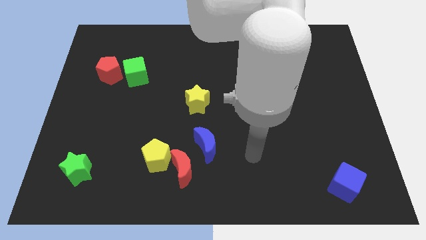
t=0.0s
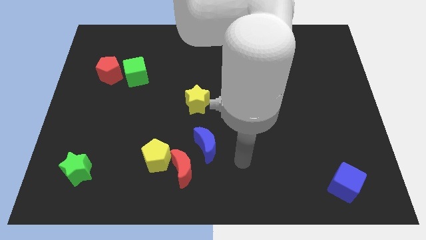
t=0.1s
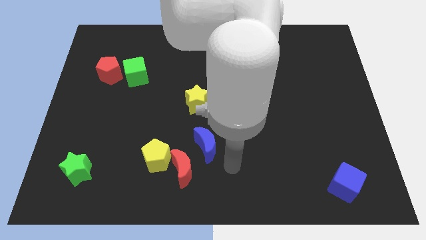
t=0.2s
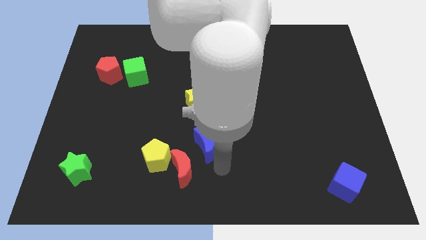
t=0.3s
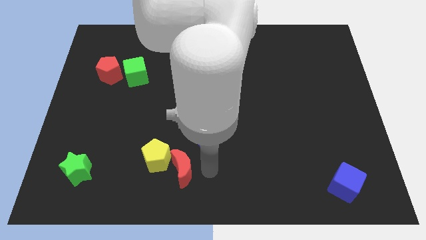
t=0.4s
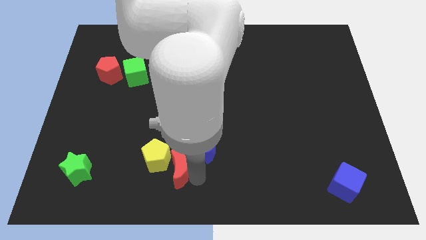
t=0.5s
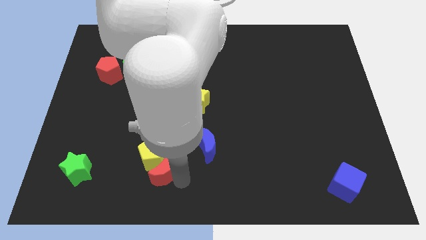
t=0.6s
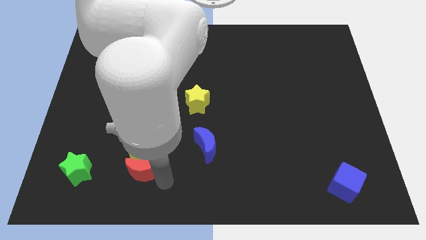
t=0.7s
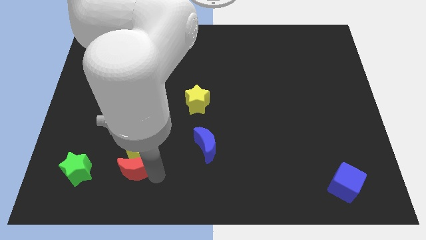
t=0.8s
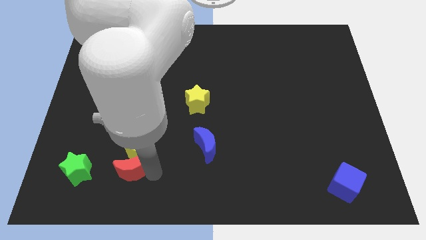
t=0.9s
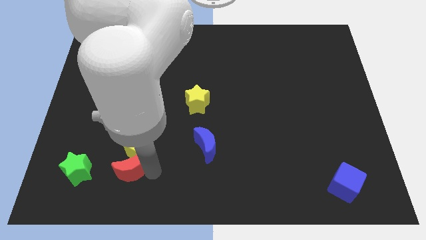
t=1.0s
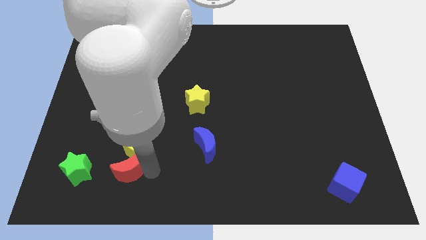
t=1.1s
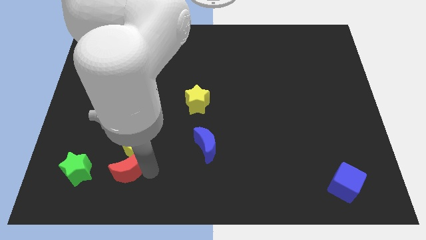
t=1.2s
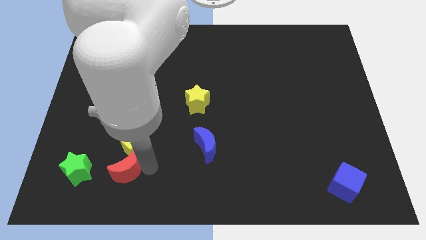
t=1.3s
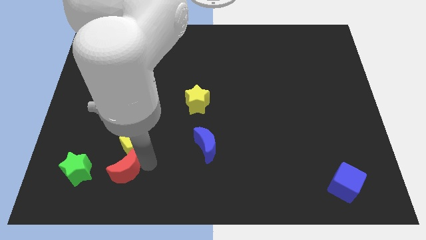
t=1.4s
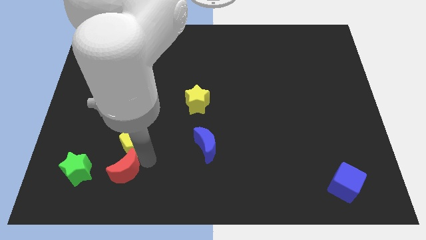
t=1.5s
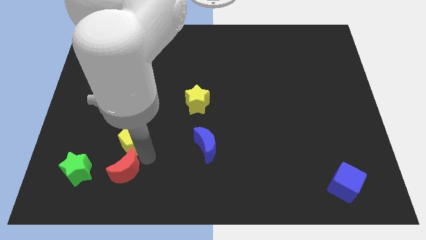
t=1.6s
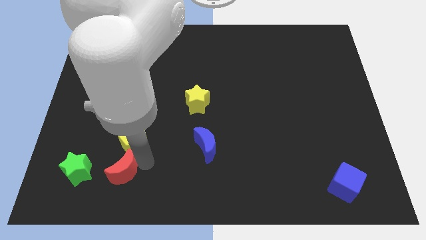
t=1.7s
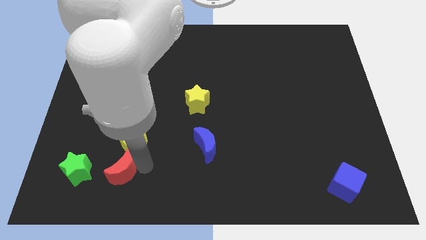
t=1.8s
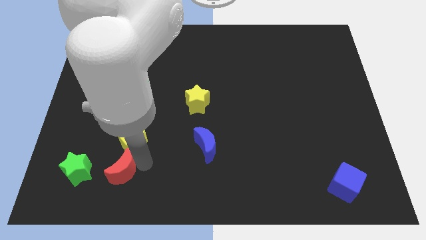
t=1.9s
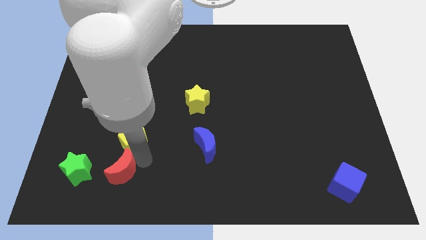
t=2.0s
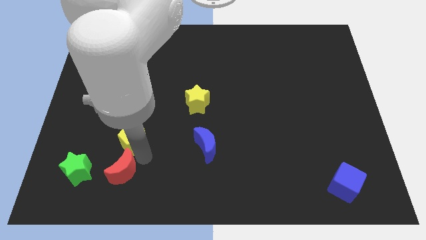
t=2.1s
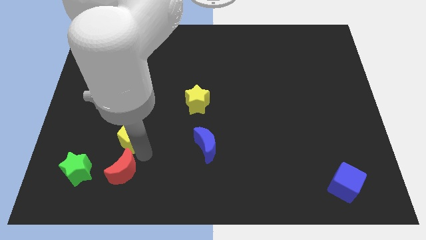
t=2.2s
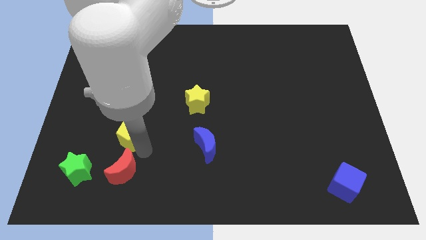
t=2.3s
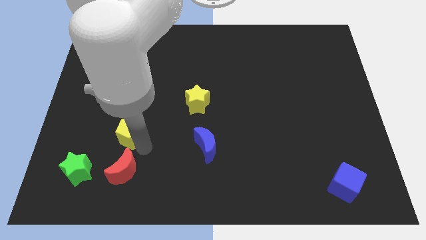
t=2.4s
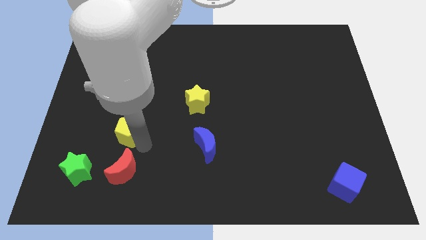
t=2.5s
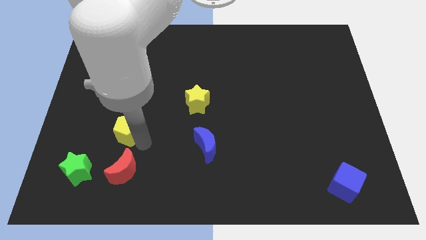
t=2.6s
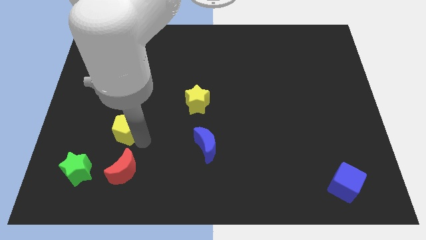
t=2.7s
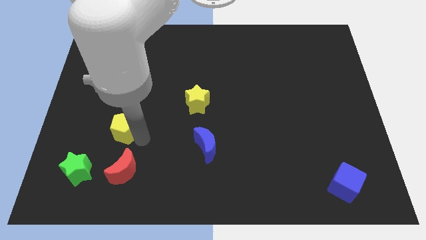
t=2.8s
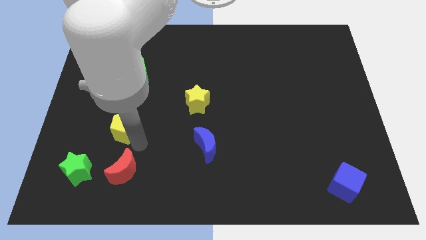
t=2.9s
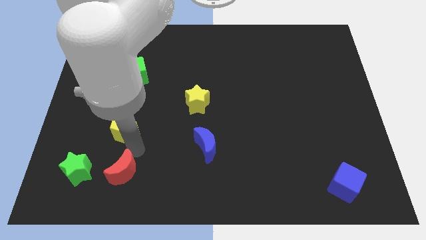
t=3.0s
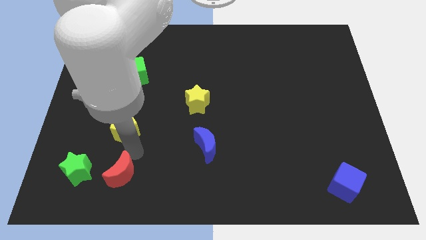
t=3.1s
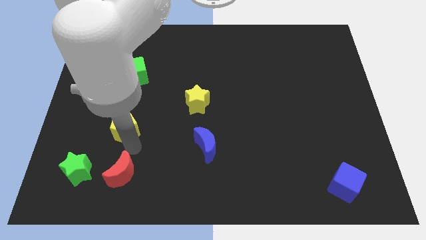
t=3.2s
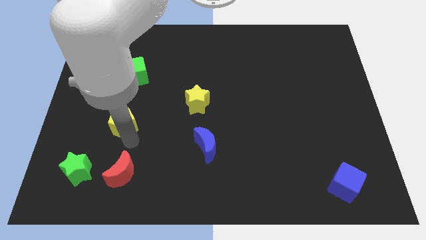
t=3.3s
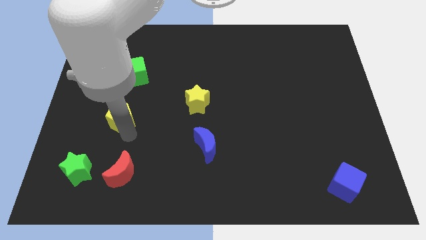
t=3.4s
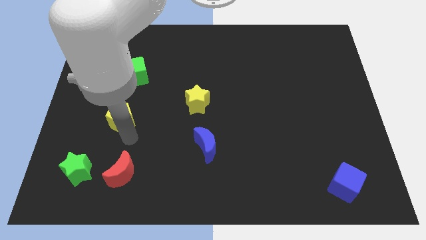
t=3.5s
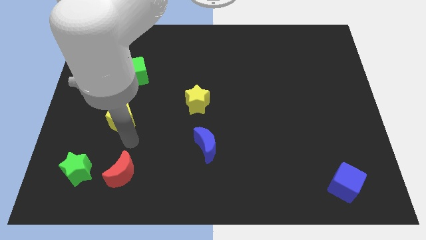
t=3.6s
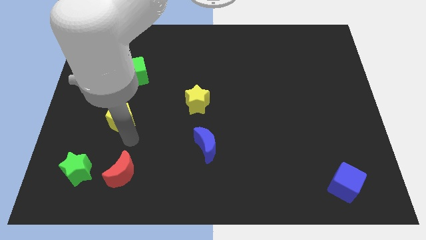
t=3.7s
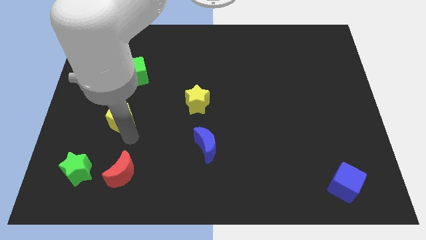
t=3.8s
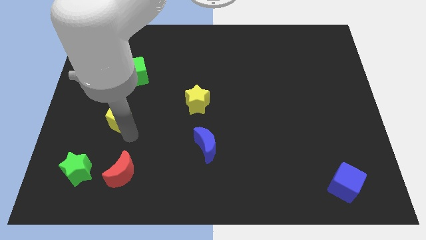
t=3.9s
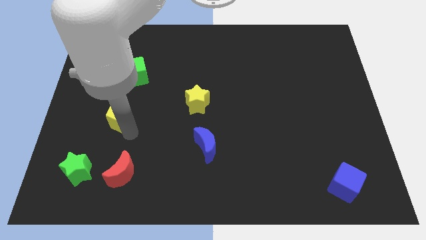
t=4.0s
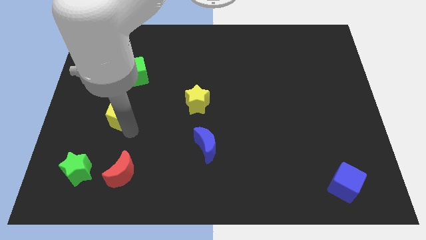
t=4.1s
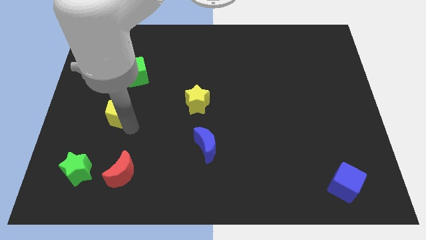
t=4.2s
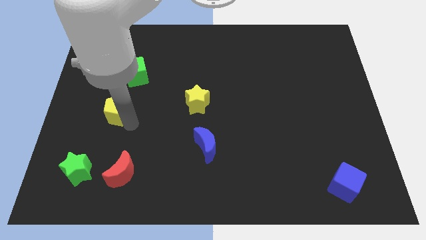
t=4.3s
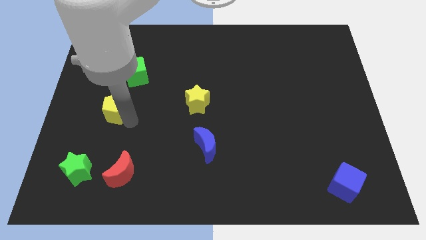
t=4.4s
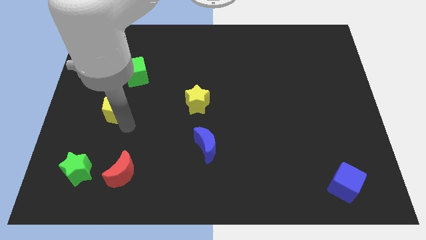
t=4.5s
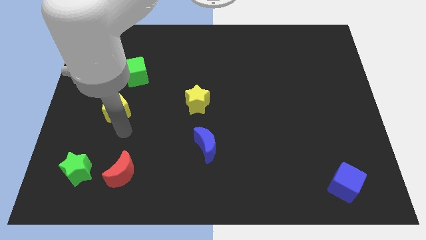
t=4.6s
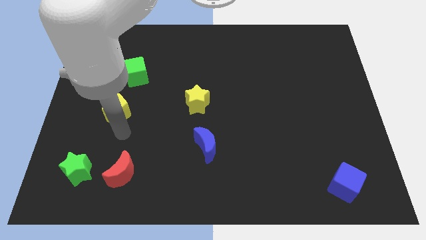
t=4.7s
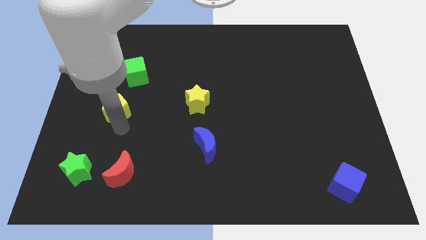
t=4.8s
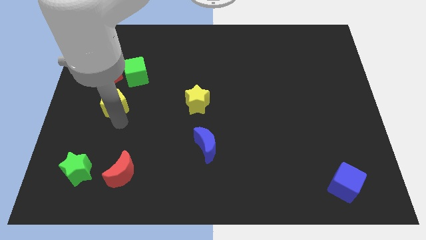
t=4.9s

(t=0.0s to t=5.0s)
push the yellow pentagon diagonally down and to the left of the green cube

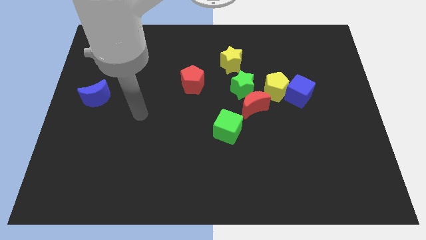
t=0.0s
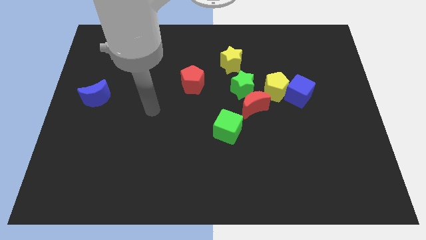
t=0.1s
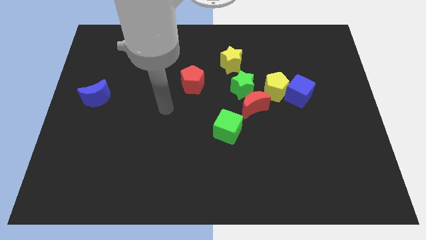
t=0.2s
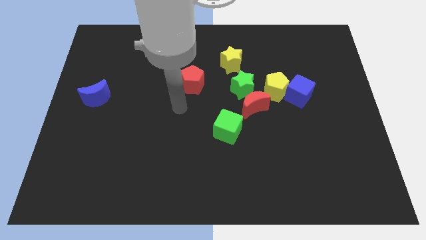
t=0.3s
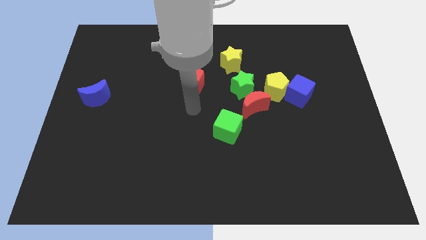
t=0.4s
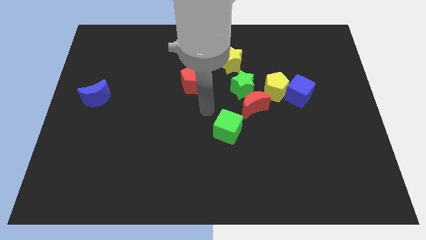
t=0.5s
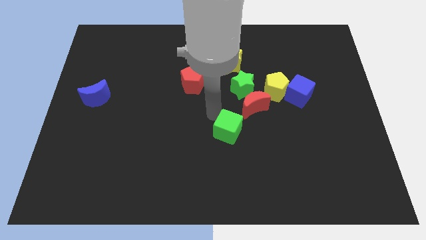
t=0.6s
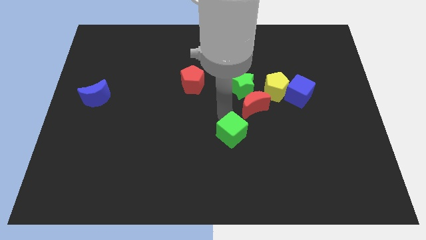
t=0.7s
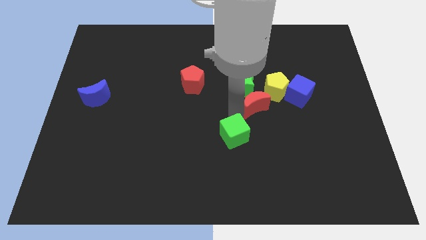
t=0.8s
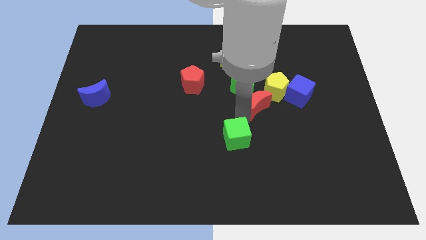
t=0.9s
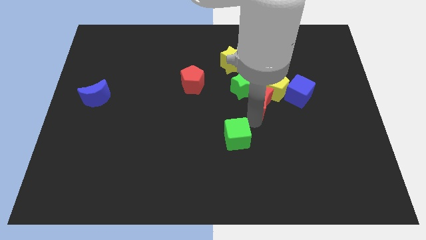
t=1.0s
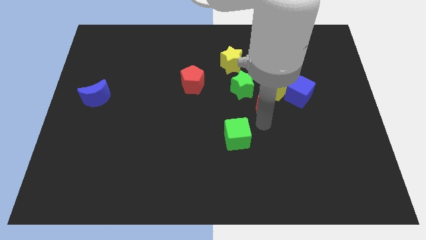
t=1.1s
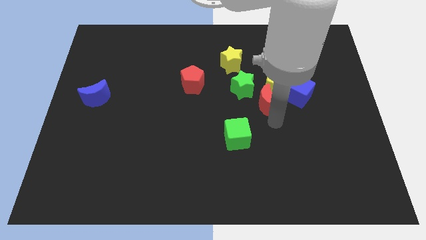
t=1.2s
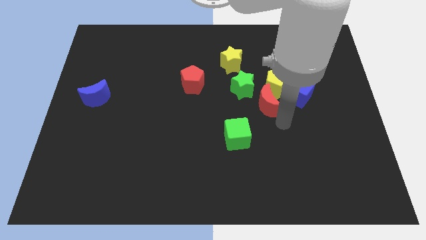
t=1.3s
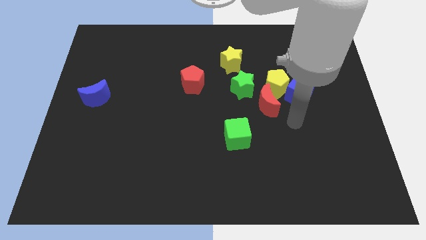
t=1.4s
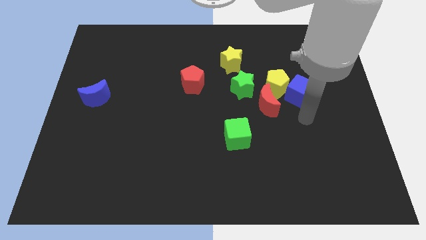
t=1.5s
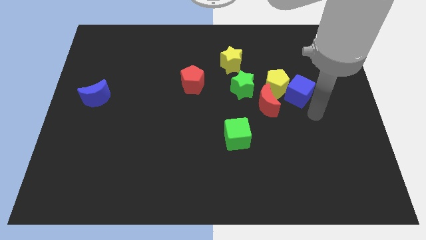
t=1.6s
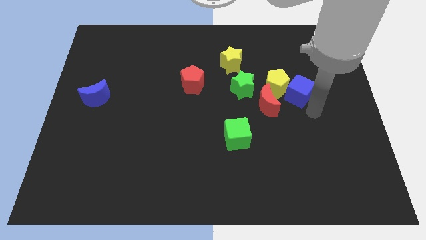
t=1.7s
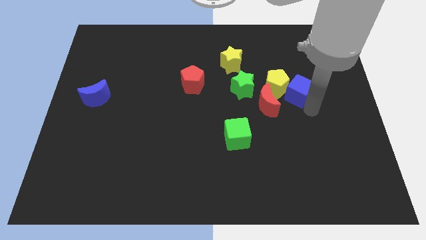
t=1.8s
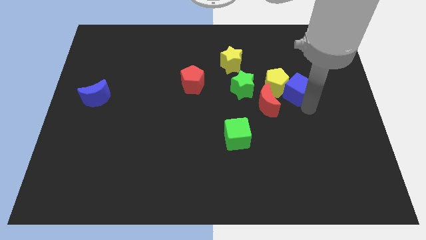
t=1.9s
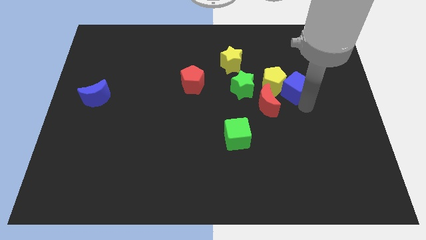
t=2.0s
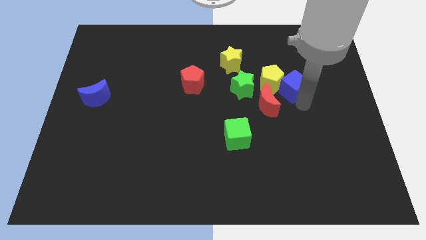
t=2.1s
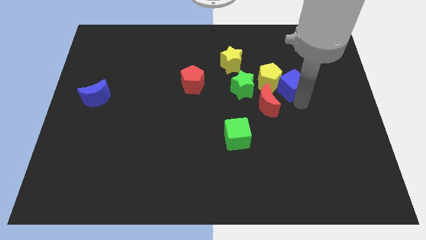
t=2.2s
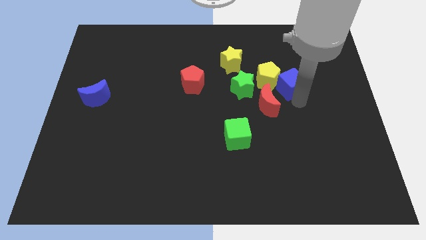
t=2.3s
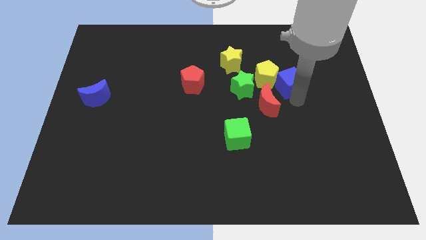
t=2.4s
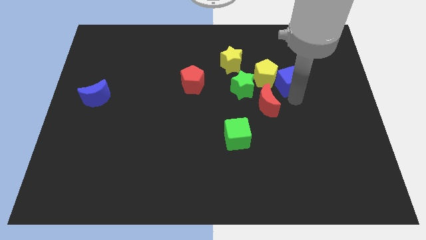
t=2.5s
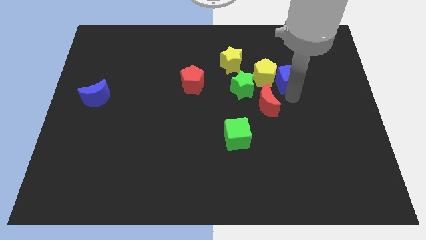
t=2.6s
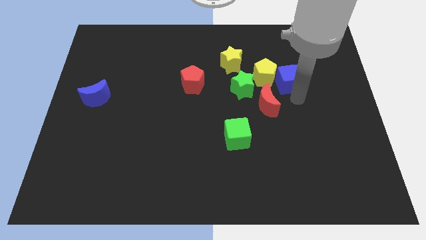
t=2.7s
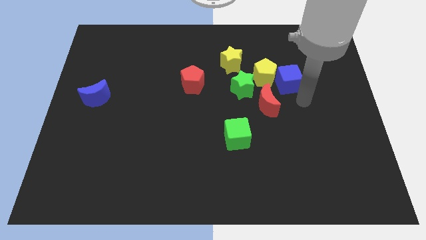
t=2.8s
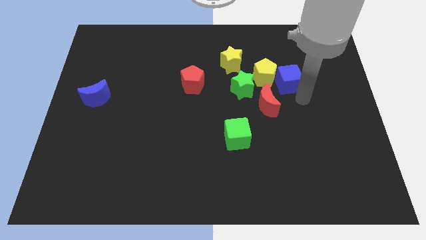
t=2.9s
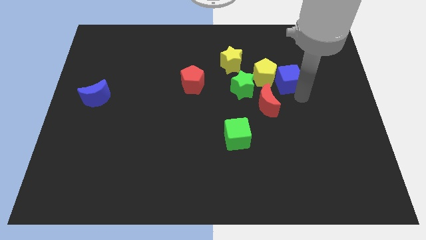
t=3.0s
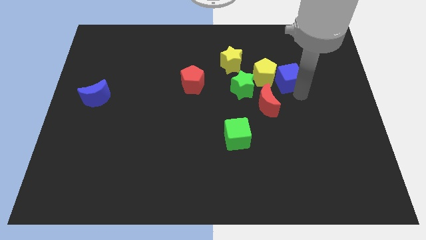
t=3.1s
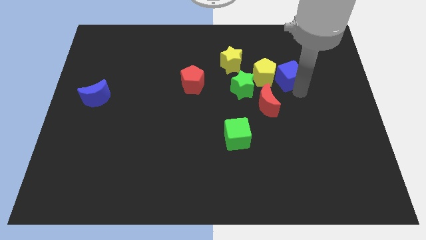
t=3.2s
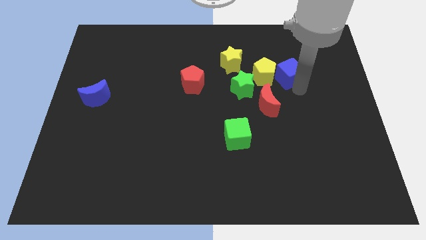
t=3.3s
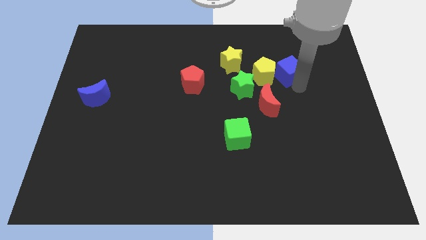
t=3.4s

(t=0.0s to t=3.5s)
push the blue cube just right of the yellow star

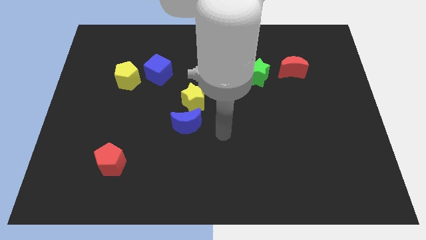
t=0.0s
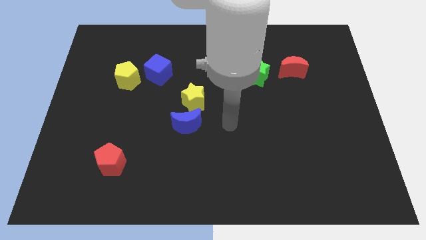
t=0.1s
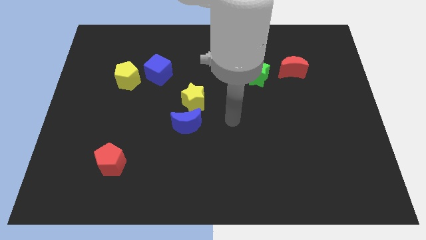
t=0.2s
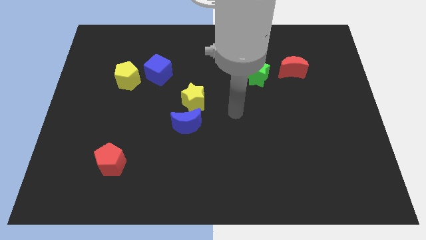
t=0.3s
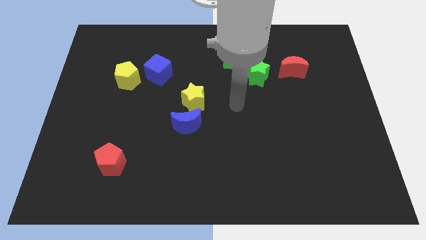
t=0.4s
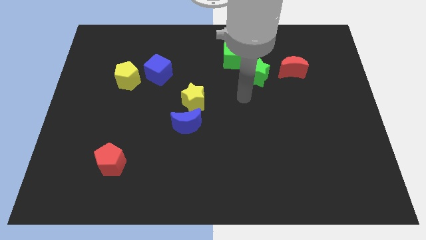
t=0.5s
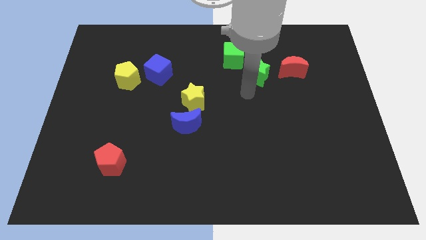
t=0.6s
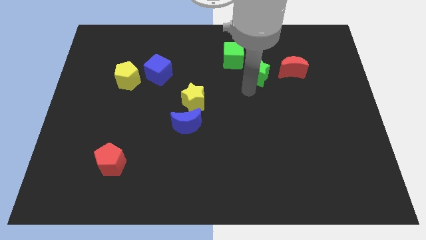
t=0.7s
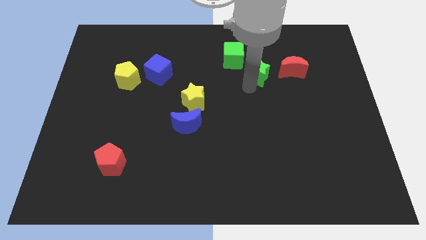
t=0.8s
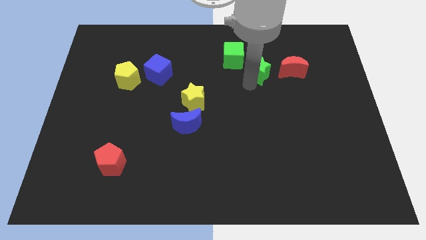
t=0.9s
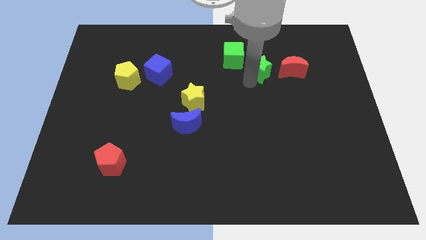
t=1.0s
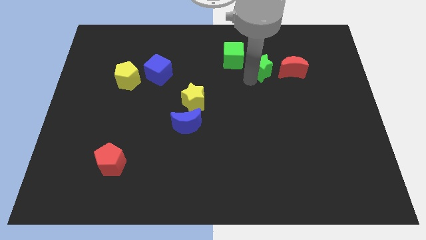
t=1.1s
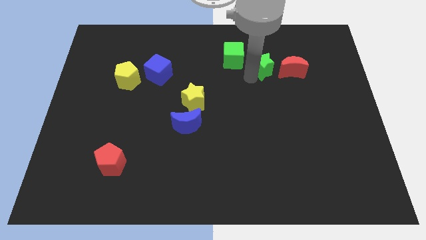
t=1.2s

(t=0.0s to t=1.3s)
move the green star to the top left of the red moon
